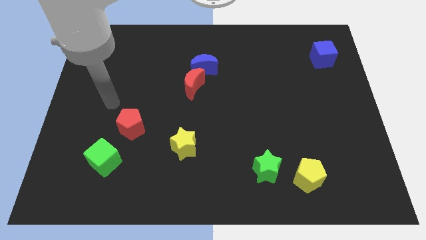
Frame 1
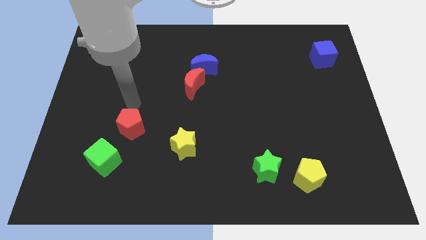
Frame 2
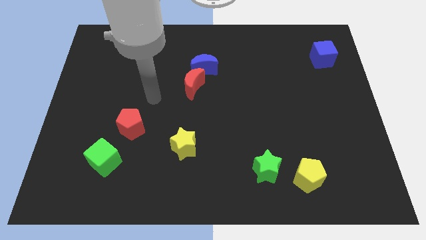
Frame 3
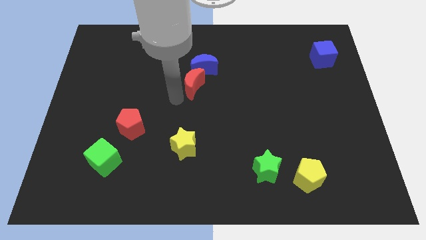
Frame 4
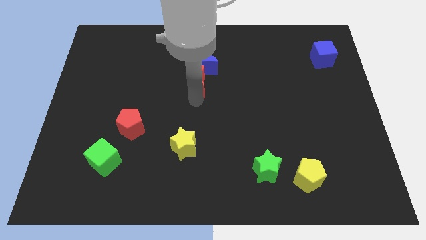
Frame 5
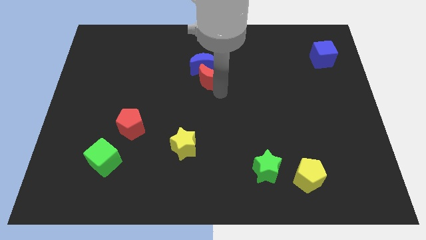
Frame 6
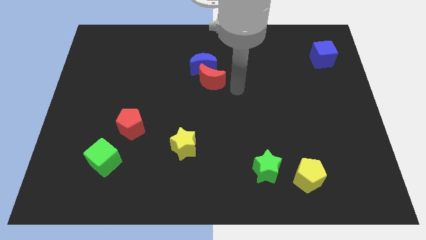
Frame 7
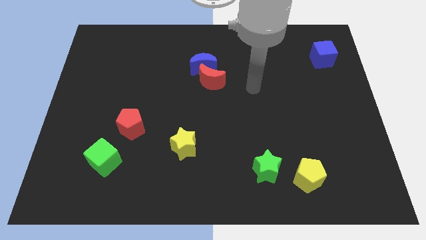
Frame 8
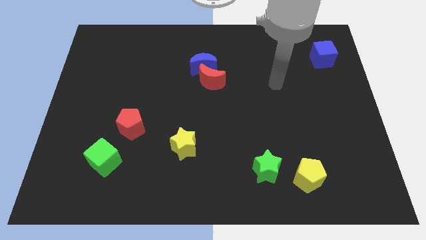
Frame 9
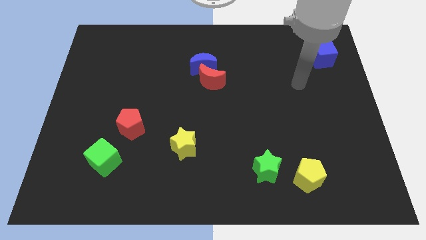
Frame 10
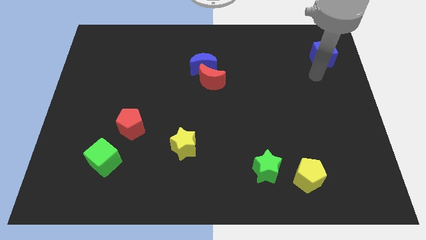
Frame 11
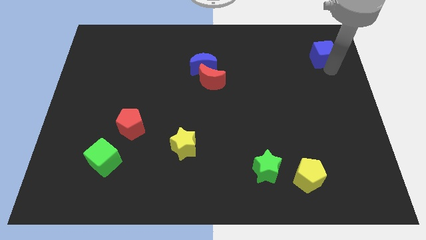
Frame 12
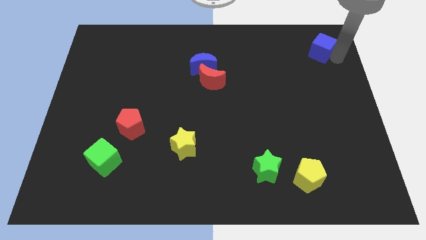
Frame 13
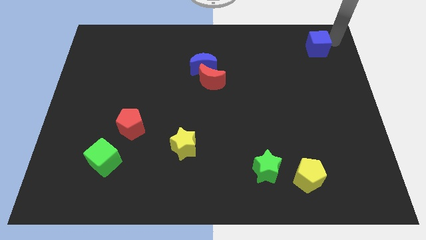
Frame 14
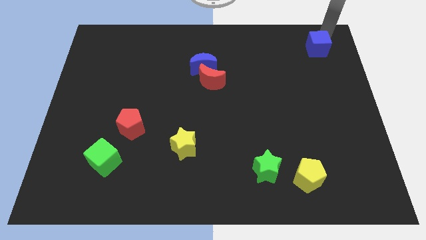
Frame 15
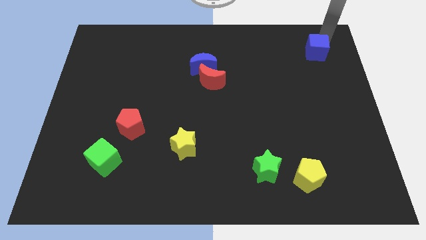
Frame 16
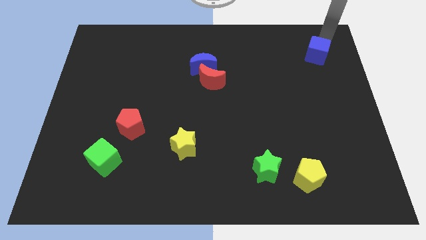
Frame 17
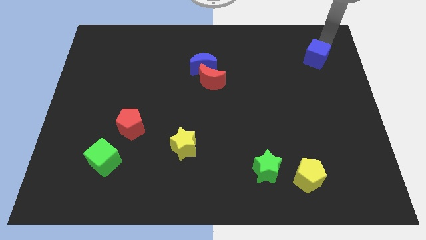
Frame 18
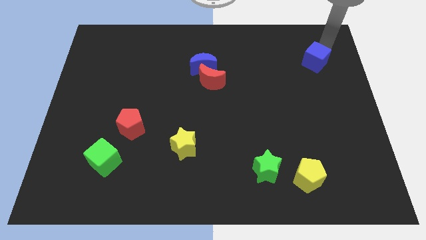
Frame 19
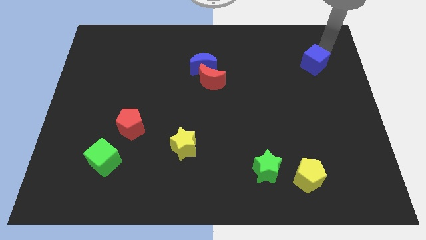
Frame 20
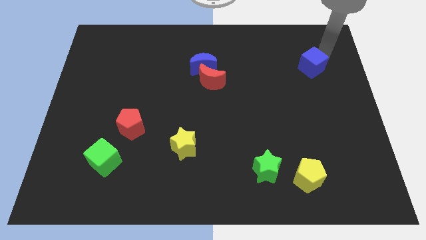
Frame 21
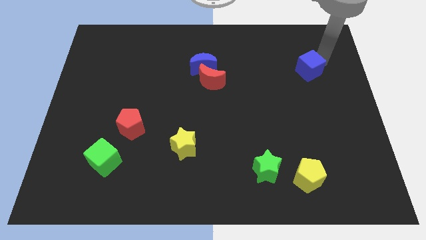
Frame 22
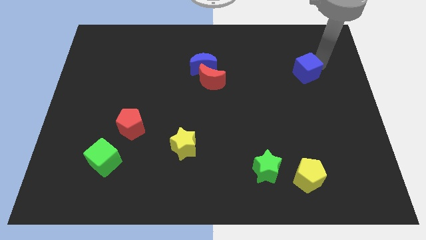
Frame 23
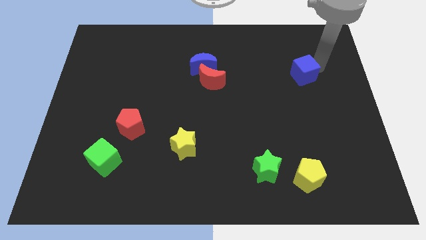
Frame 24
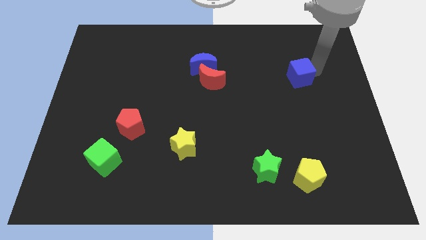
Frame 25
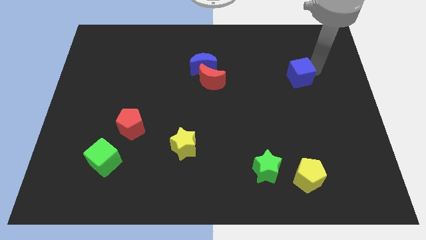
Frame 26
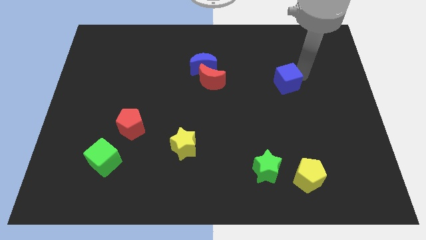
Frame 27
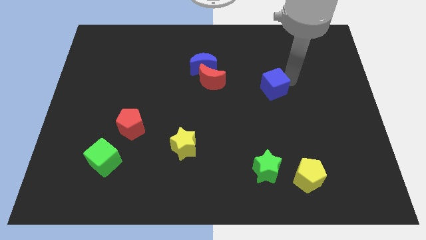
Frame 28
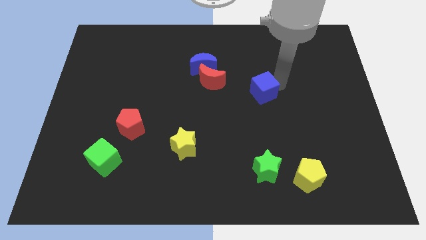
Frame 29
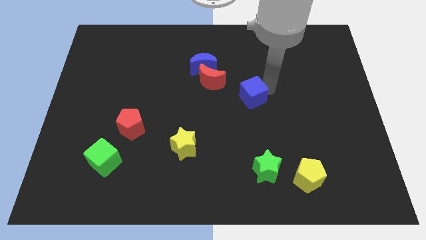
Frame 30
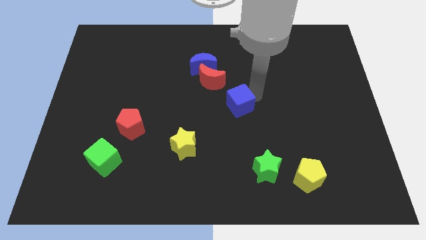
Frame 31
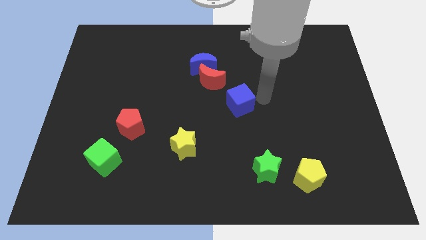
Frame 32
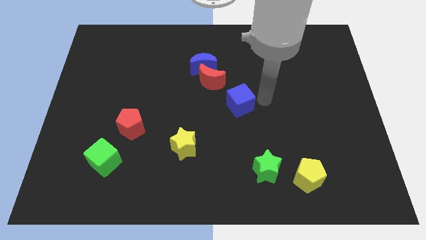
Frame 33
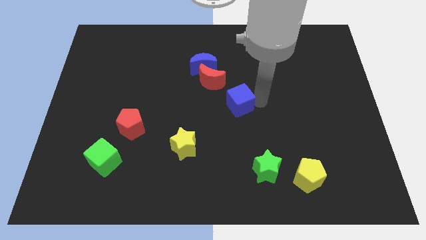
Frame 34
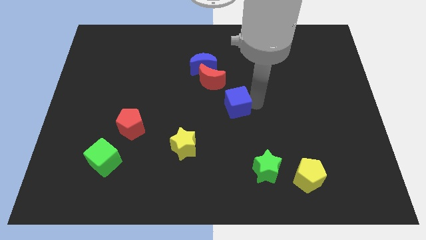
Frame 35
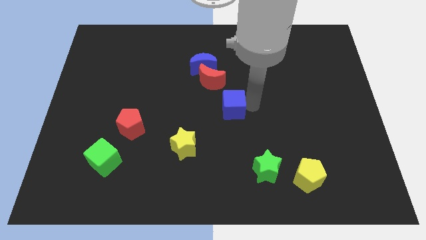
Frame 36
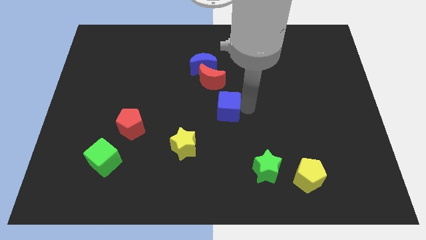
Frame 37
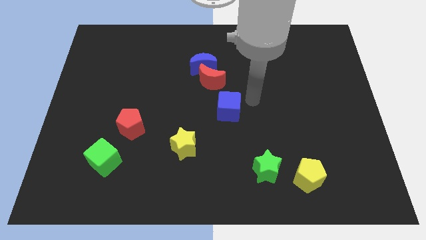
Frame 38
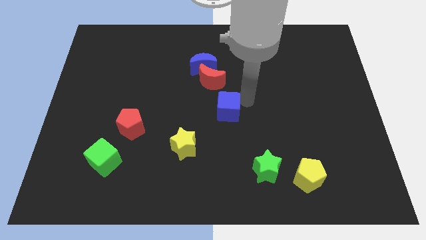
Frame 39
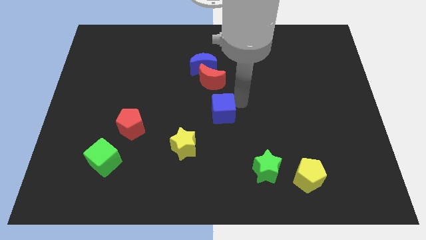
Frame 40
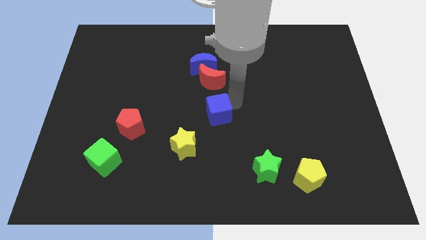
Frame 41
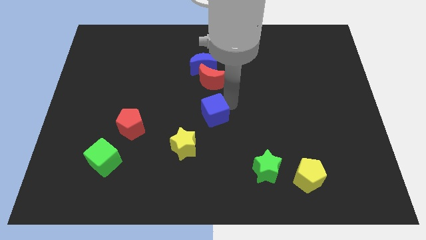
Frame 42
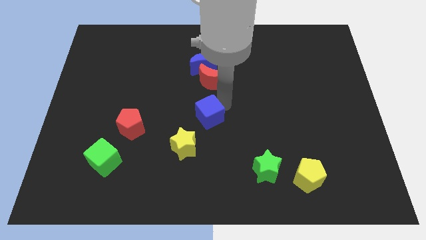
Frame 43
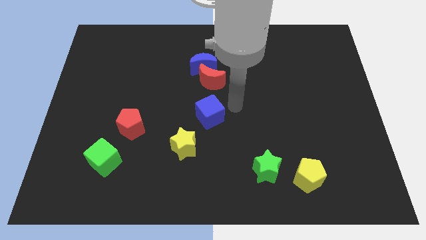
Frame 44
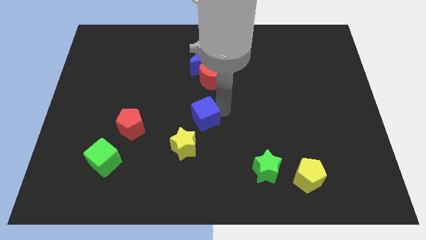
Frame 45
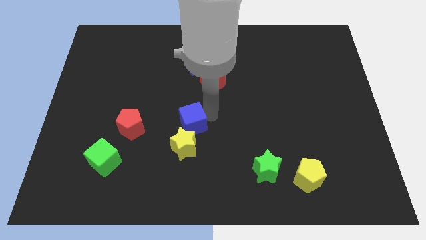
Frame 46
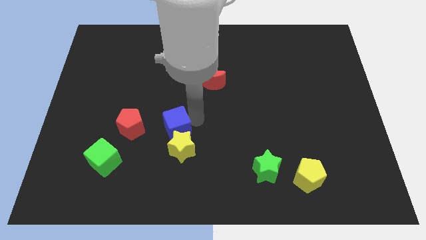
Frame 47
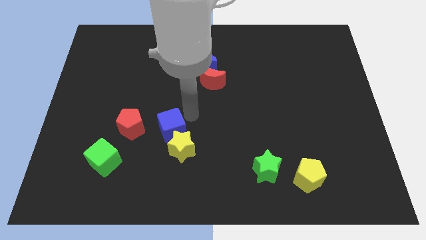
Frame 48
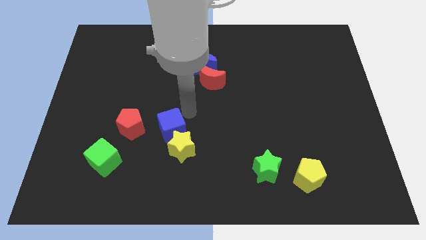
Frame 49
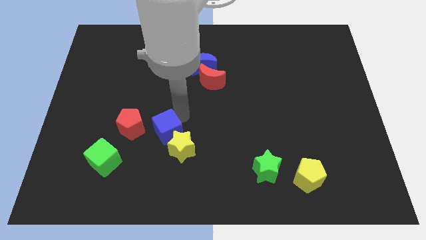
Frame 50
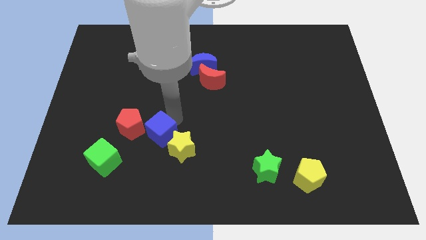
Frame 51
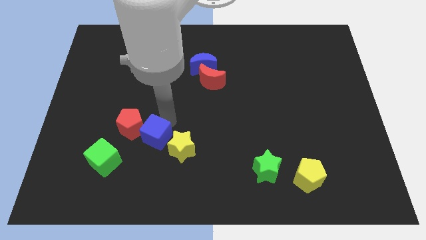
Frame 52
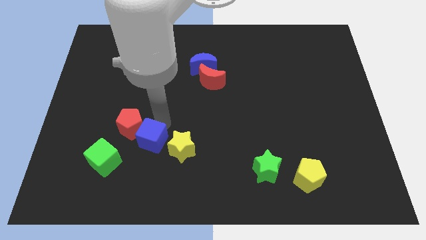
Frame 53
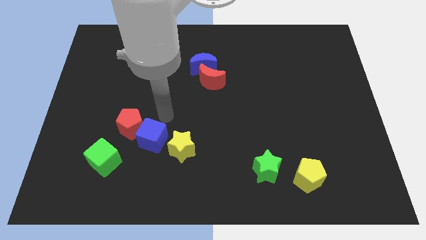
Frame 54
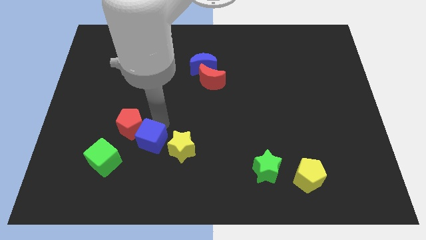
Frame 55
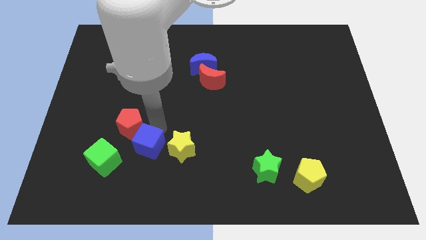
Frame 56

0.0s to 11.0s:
put the blue cube below the red pentagon

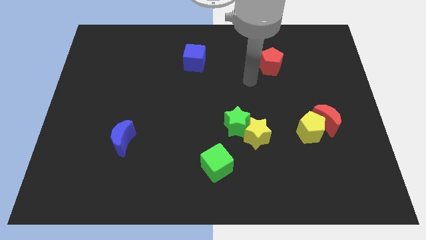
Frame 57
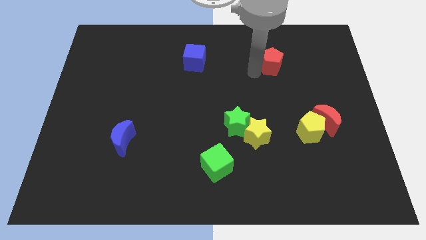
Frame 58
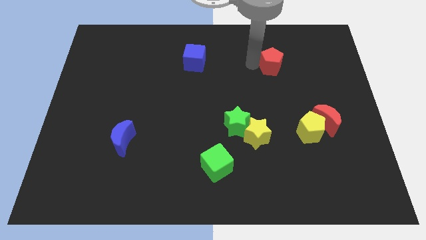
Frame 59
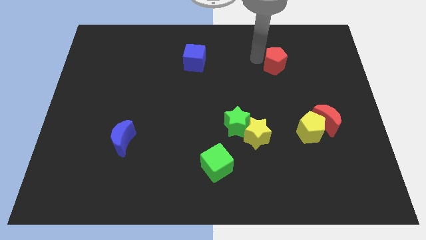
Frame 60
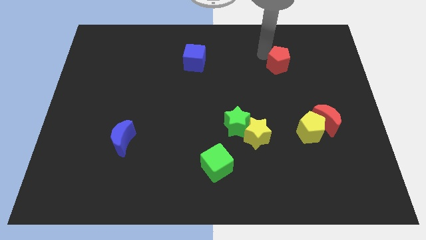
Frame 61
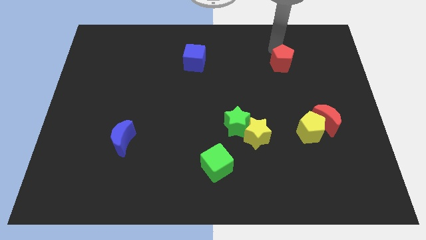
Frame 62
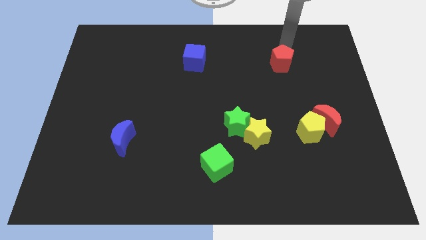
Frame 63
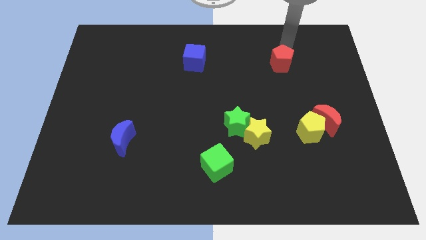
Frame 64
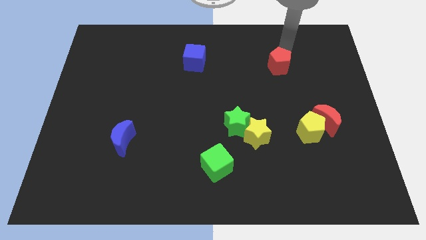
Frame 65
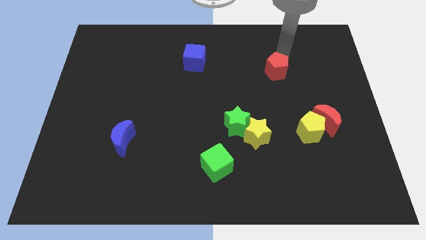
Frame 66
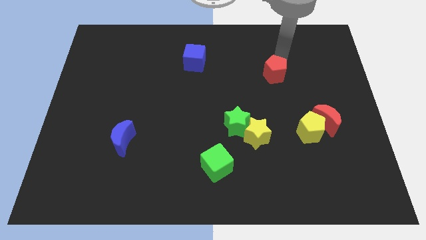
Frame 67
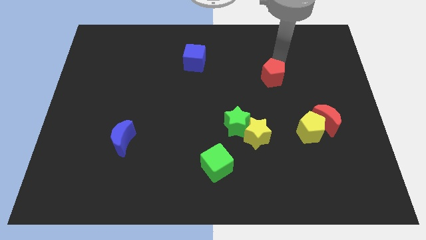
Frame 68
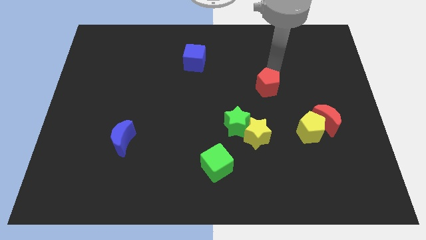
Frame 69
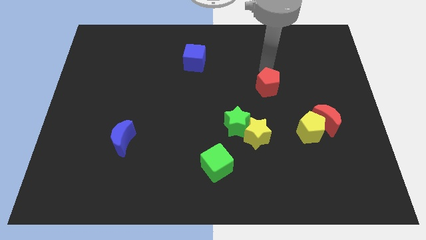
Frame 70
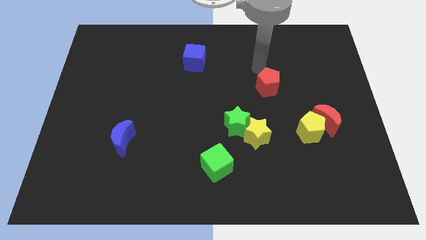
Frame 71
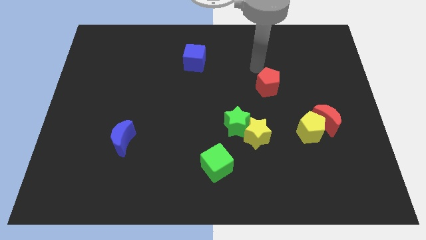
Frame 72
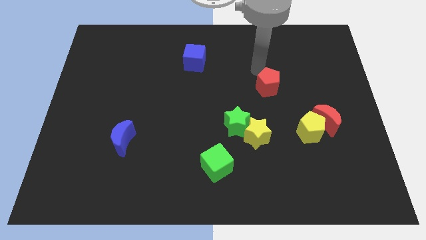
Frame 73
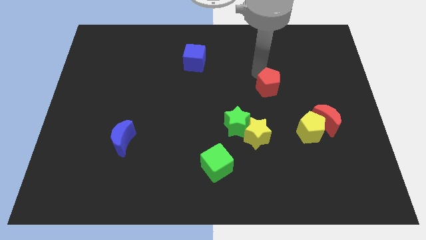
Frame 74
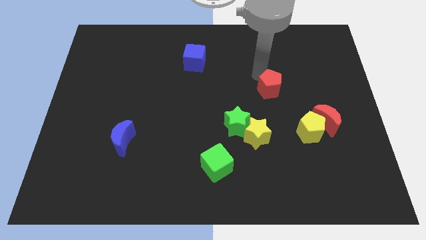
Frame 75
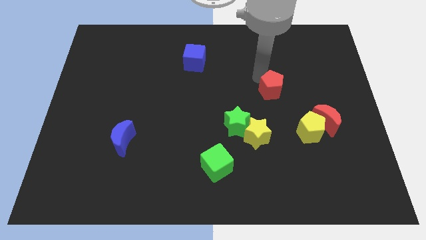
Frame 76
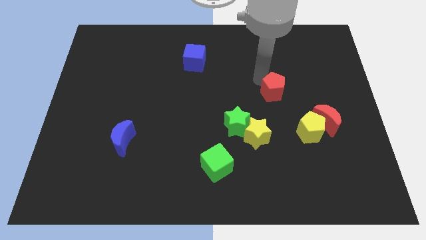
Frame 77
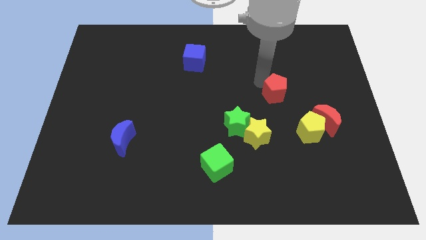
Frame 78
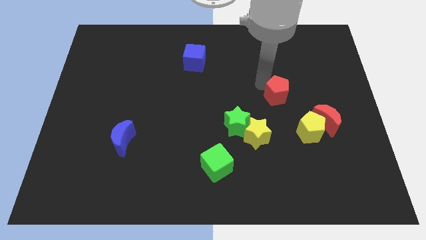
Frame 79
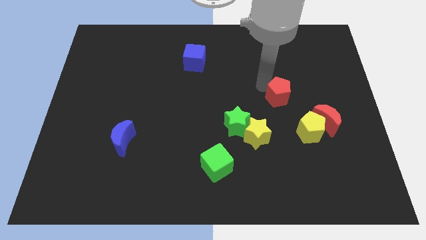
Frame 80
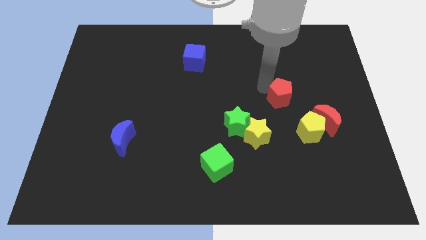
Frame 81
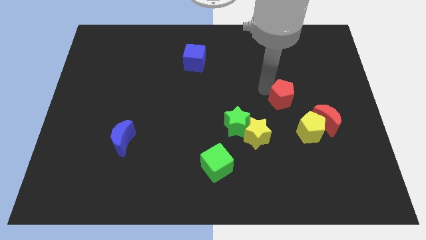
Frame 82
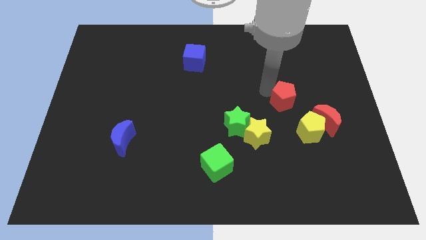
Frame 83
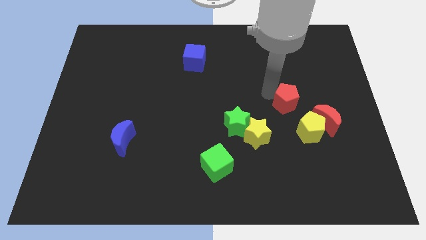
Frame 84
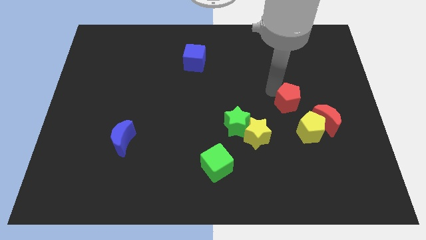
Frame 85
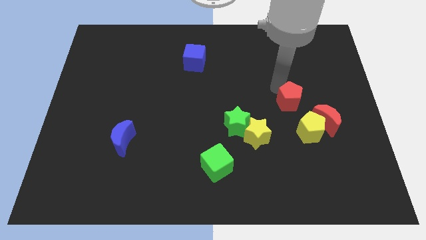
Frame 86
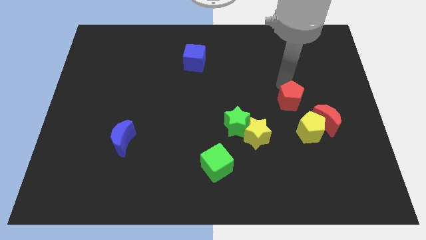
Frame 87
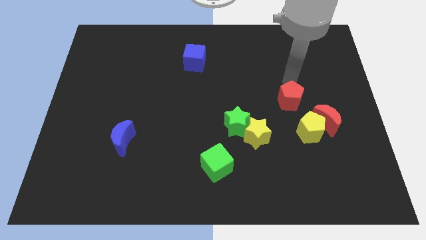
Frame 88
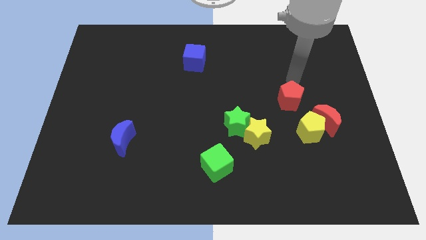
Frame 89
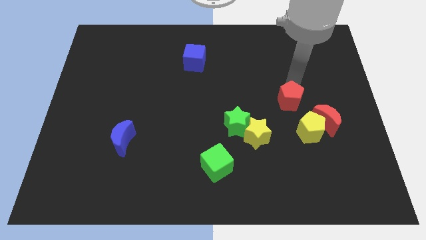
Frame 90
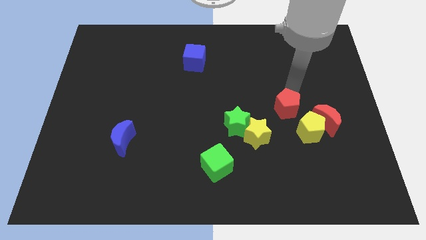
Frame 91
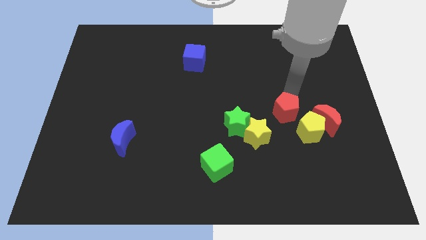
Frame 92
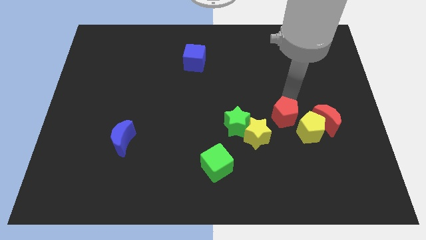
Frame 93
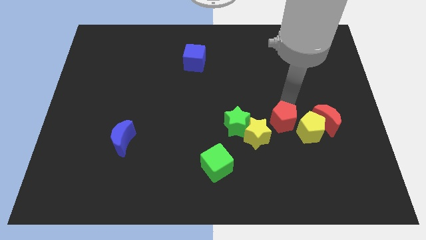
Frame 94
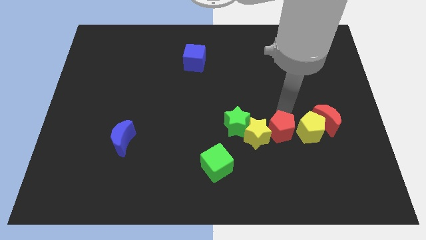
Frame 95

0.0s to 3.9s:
push the red pentagon diagonally down and to the left of the yellow pentagon
